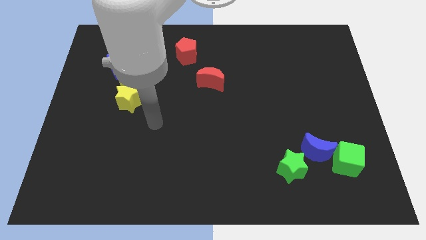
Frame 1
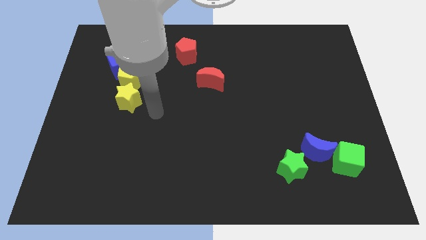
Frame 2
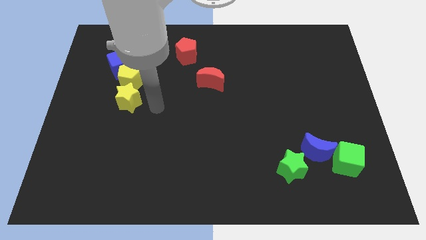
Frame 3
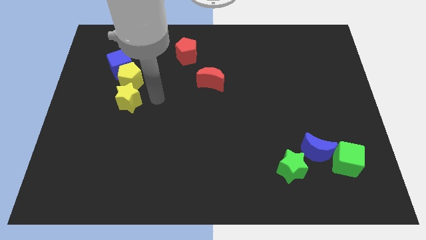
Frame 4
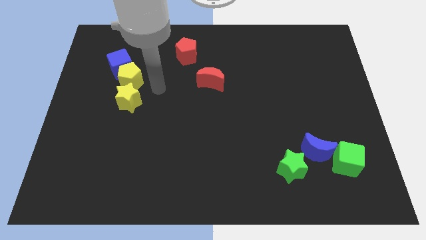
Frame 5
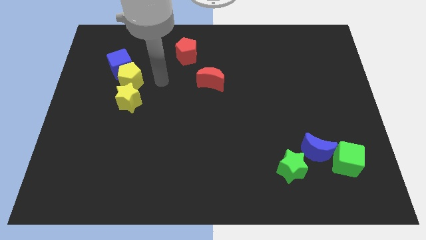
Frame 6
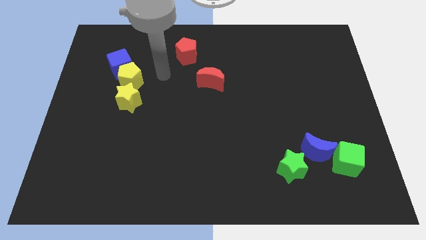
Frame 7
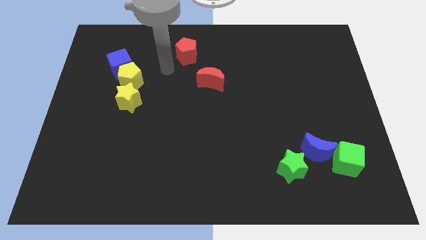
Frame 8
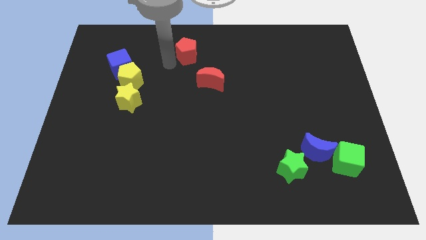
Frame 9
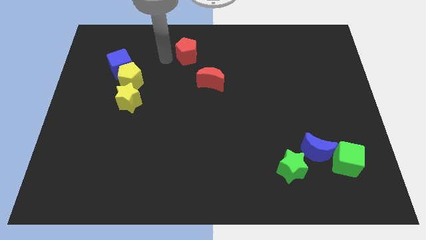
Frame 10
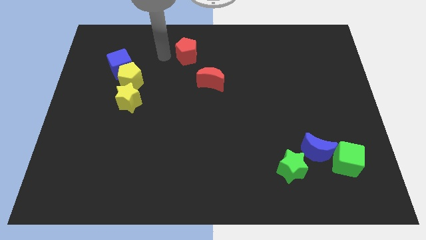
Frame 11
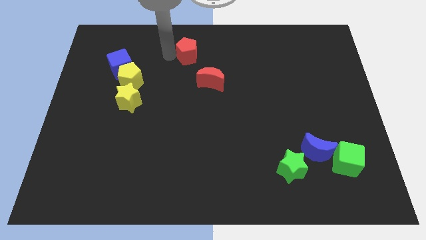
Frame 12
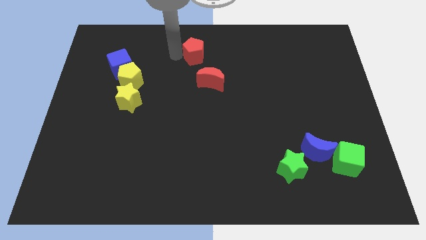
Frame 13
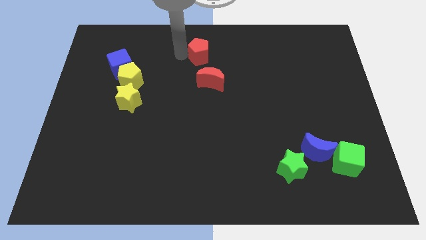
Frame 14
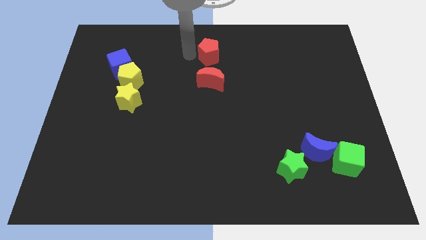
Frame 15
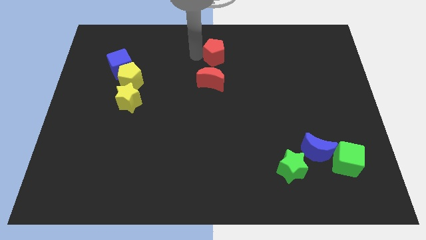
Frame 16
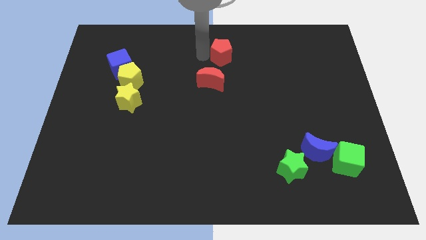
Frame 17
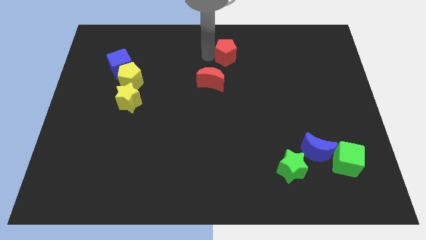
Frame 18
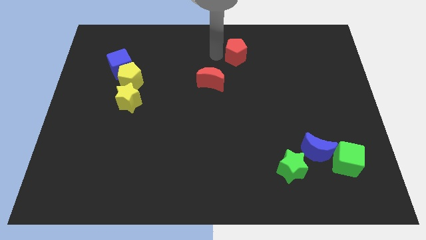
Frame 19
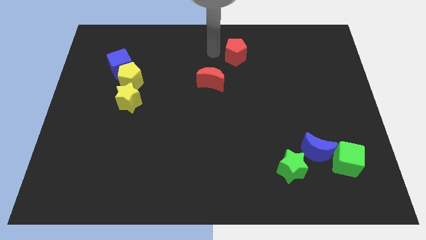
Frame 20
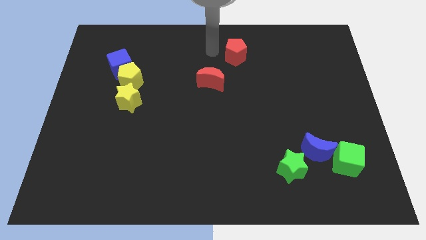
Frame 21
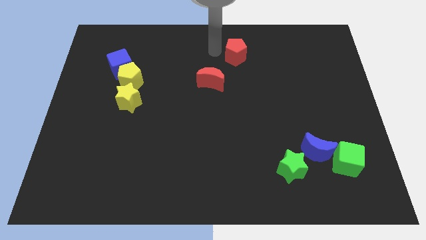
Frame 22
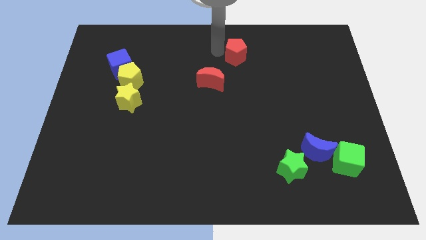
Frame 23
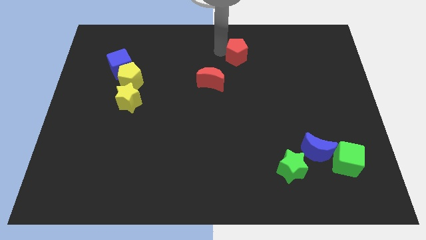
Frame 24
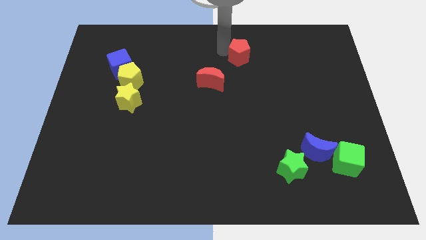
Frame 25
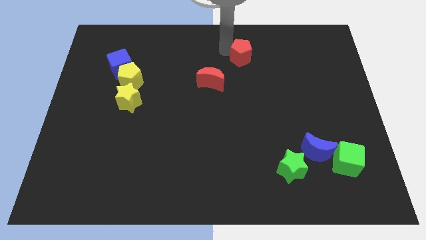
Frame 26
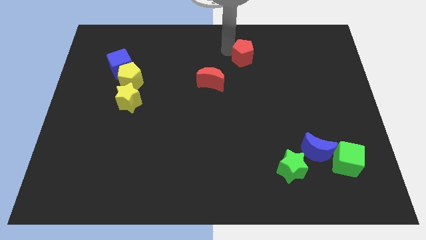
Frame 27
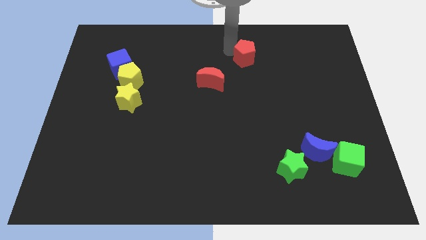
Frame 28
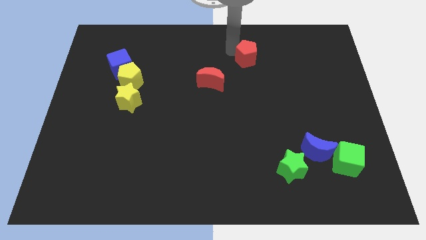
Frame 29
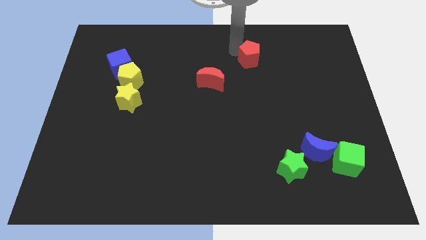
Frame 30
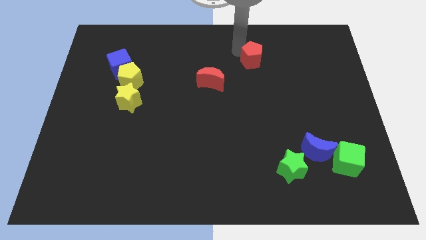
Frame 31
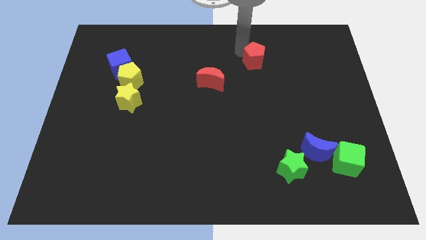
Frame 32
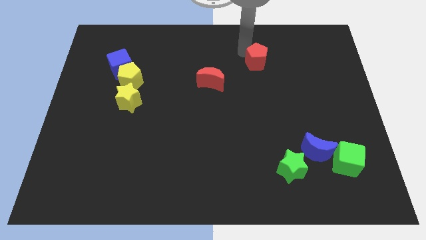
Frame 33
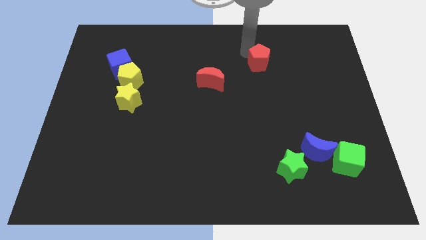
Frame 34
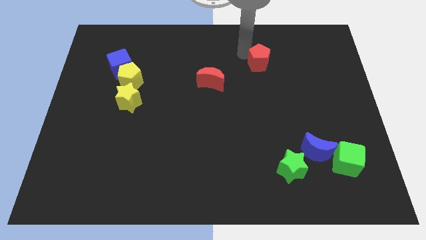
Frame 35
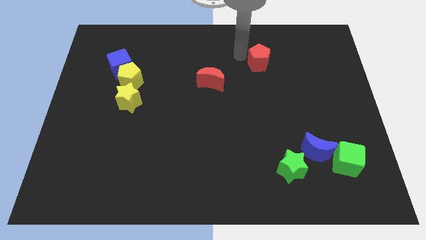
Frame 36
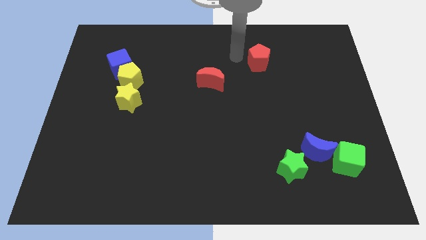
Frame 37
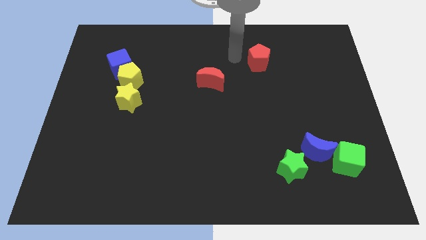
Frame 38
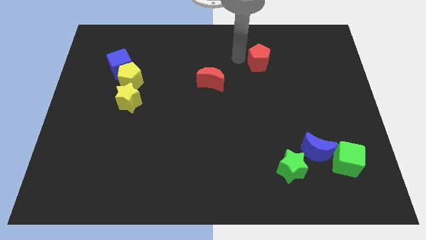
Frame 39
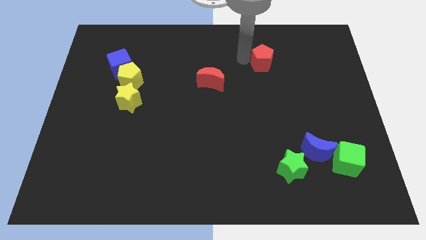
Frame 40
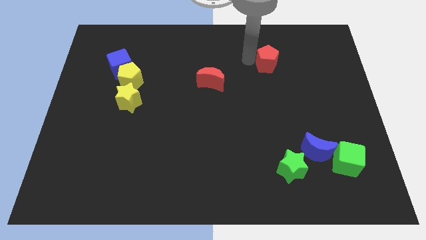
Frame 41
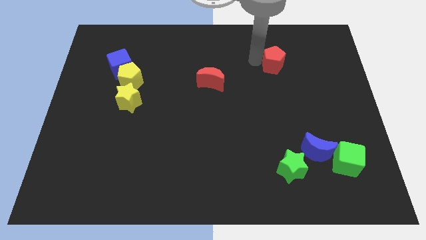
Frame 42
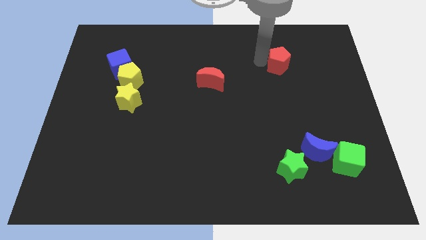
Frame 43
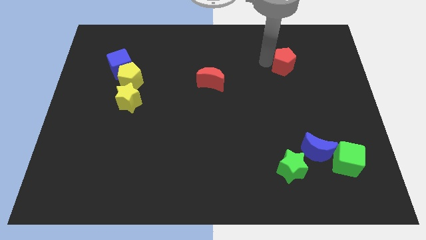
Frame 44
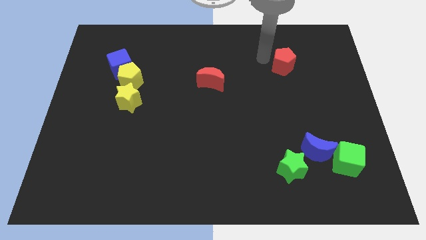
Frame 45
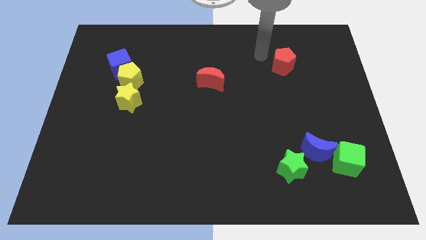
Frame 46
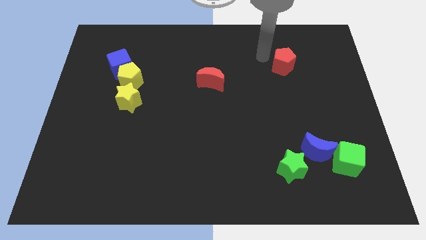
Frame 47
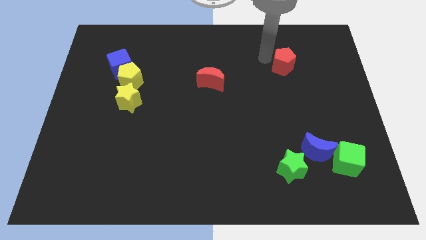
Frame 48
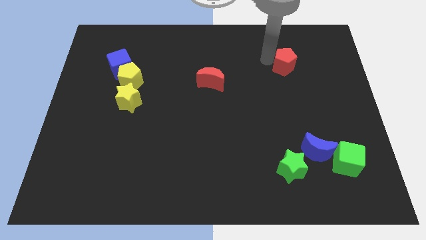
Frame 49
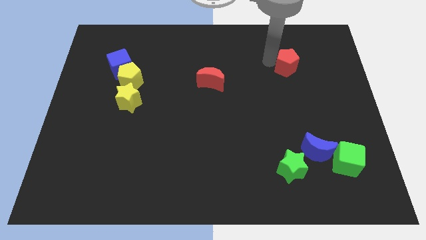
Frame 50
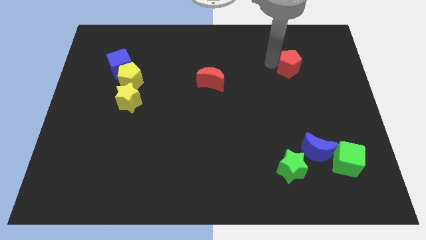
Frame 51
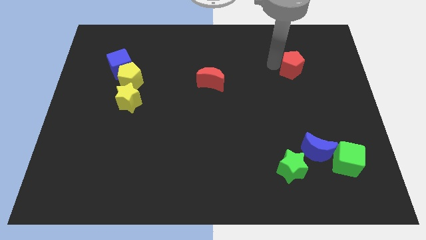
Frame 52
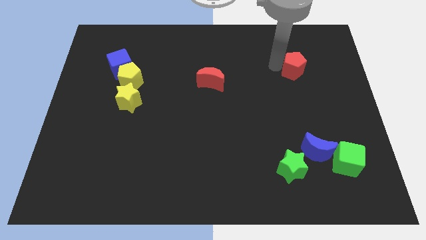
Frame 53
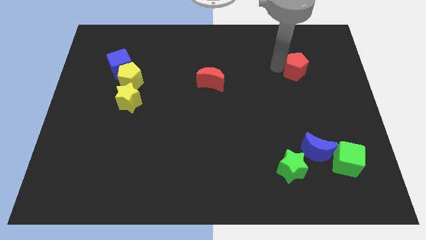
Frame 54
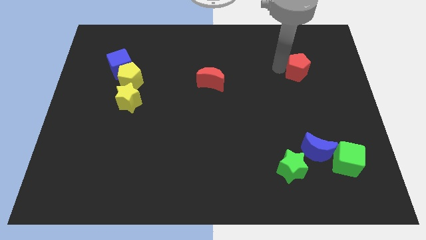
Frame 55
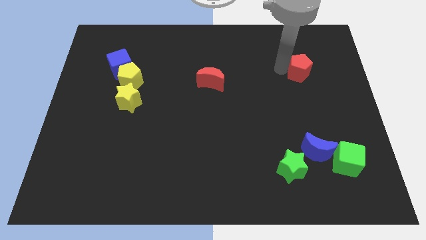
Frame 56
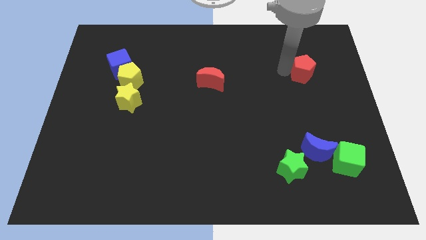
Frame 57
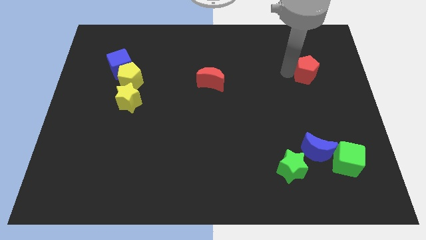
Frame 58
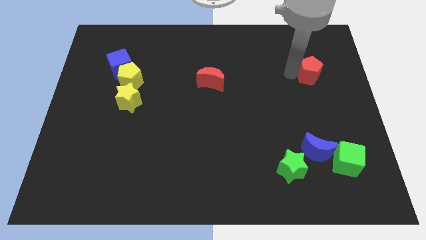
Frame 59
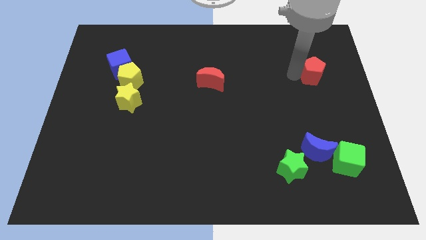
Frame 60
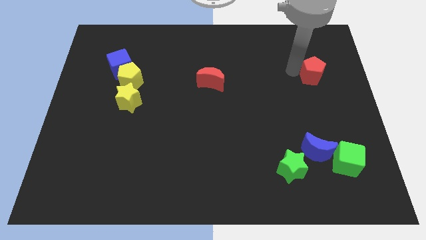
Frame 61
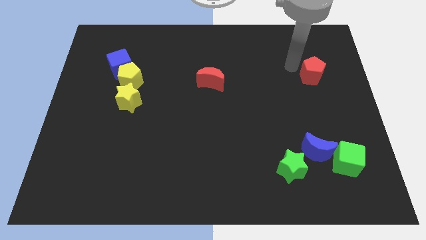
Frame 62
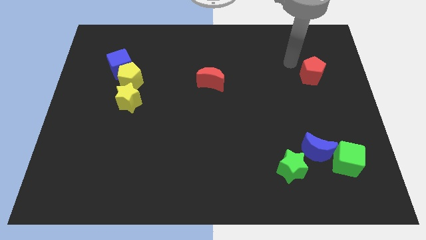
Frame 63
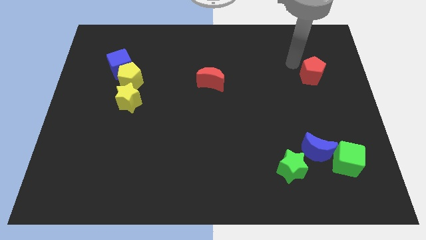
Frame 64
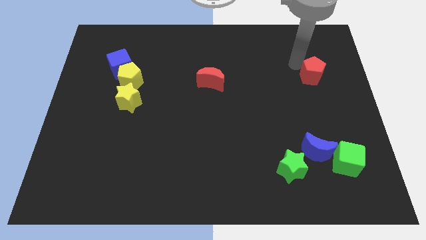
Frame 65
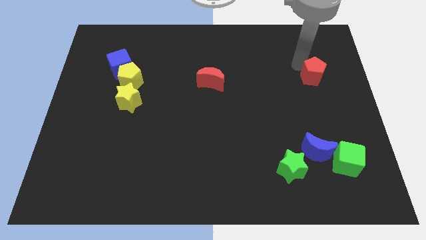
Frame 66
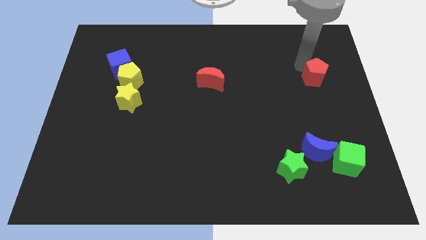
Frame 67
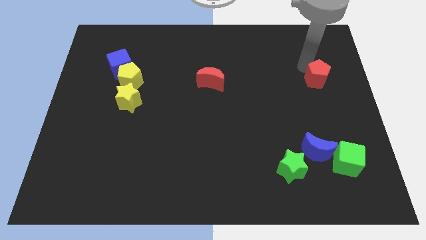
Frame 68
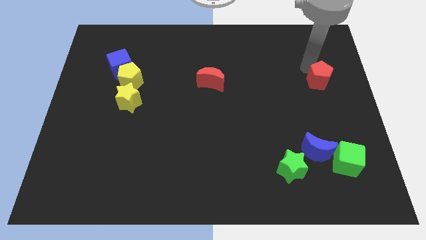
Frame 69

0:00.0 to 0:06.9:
put the red pentagon to the right side of the board

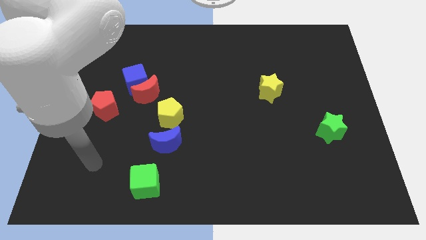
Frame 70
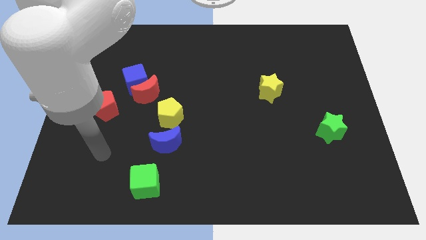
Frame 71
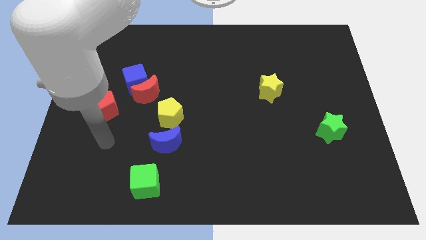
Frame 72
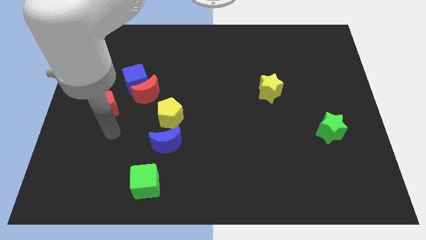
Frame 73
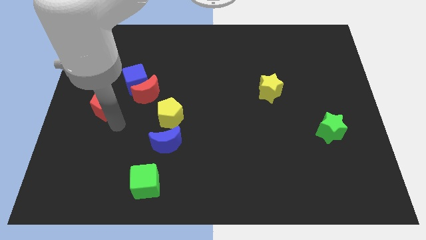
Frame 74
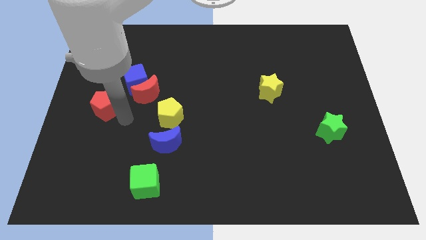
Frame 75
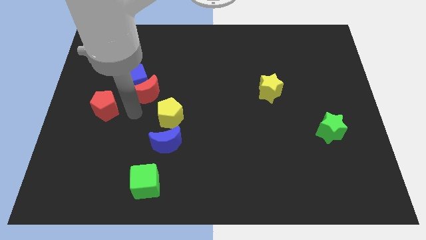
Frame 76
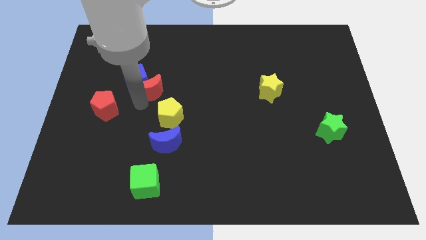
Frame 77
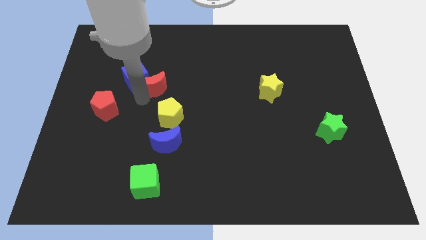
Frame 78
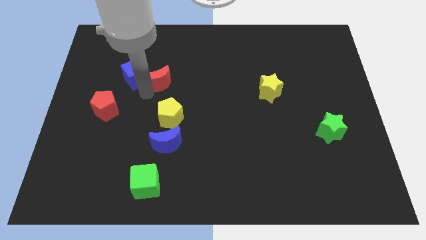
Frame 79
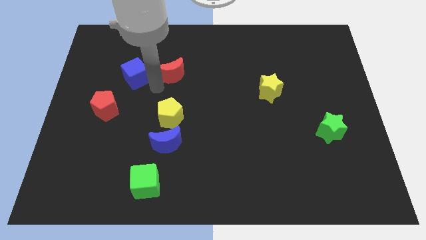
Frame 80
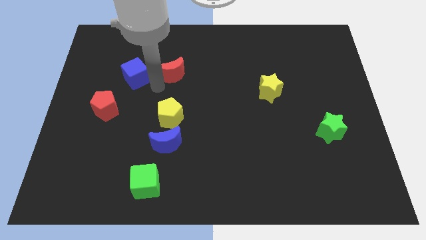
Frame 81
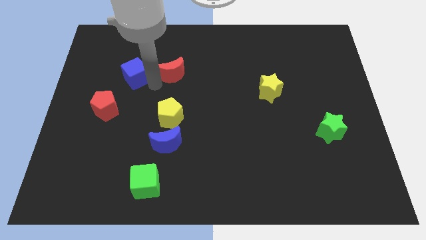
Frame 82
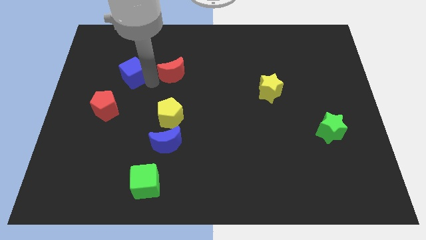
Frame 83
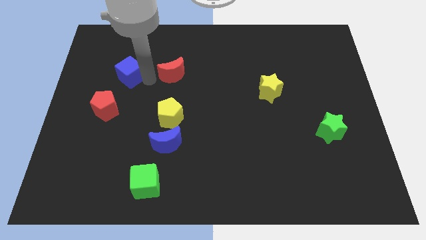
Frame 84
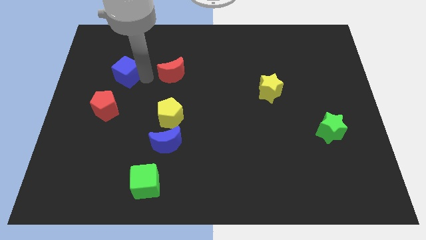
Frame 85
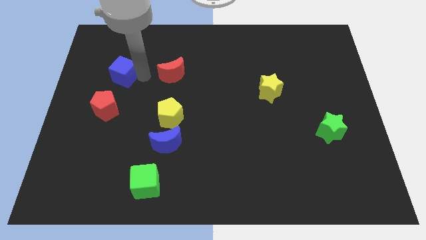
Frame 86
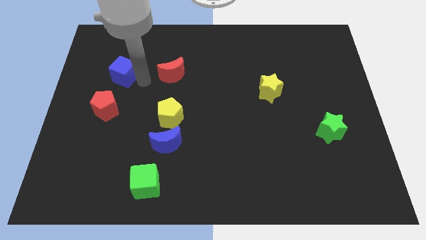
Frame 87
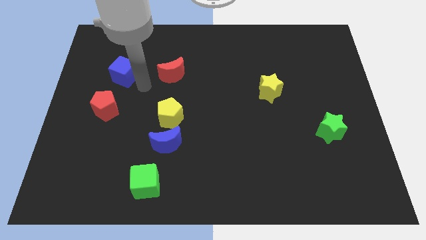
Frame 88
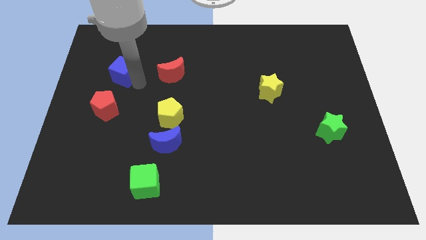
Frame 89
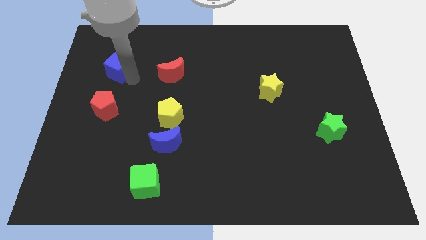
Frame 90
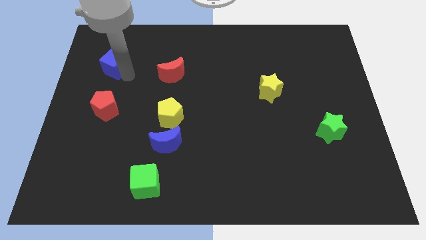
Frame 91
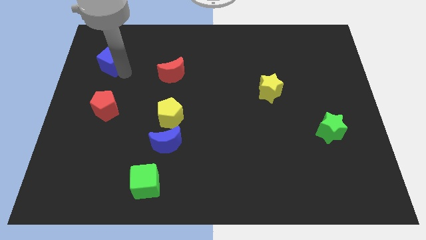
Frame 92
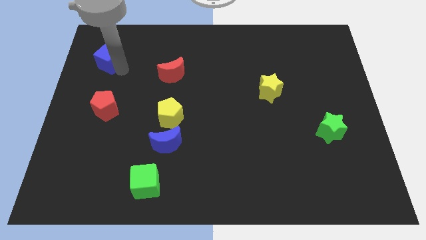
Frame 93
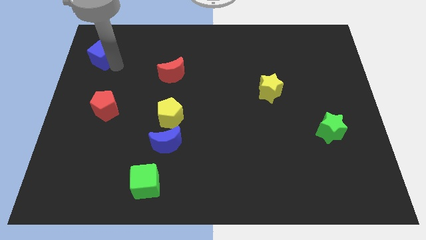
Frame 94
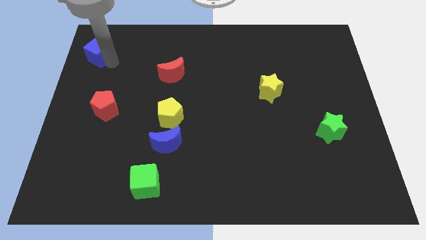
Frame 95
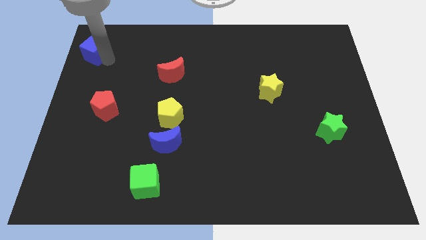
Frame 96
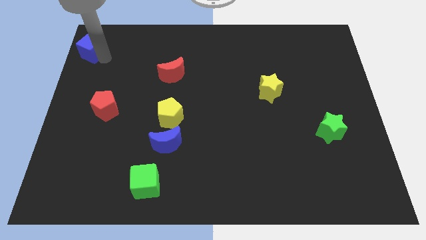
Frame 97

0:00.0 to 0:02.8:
move the blue cube to the top left corner
